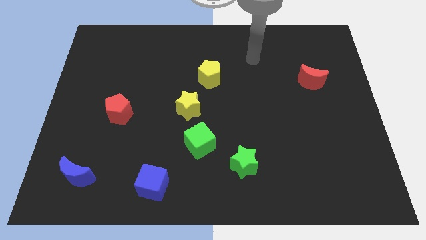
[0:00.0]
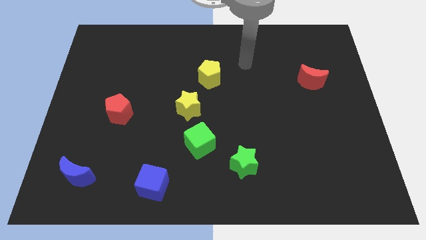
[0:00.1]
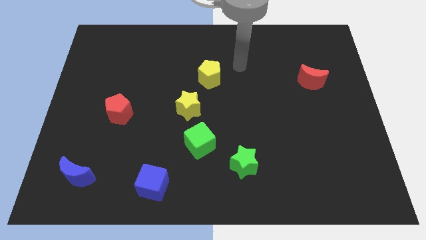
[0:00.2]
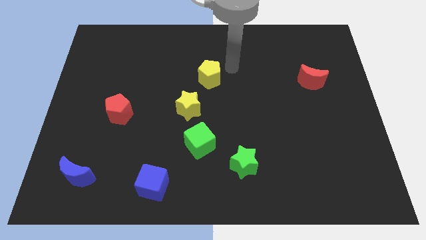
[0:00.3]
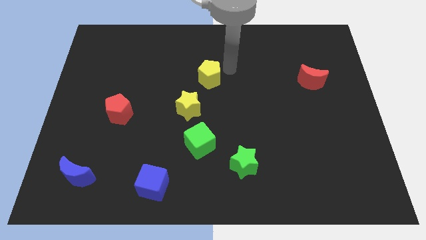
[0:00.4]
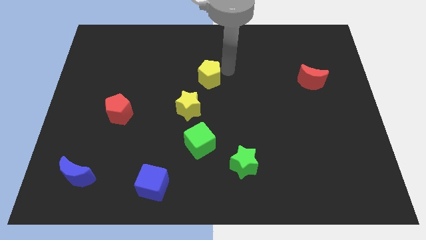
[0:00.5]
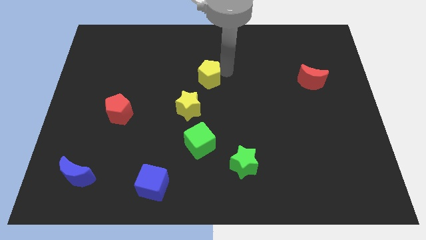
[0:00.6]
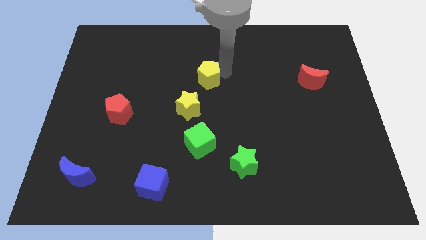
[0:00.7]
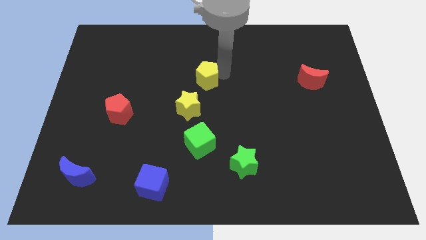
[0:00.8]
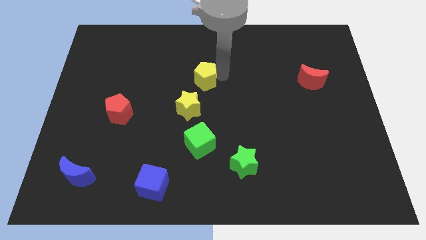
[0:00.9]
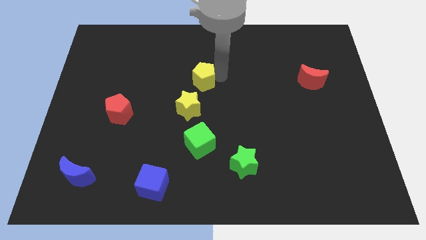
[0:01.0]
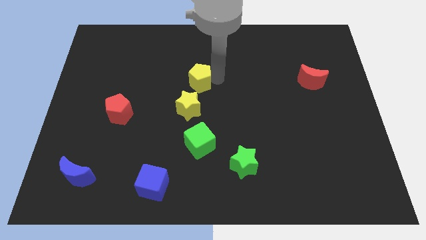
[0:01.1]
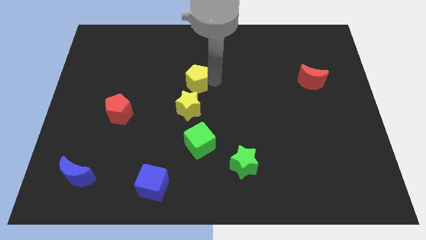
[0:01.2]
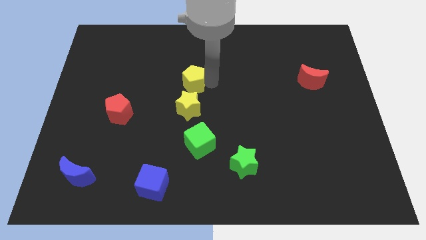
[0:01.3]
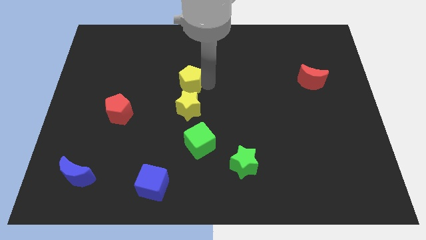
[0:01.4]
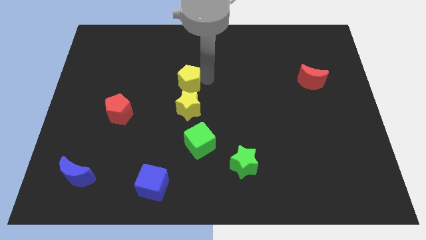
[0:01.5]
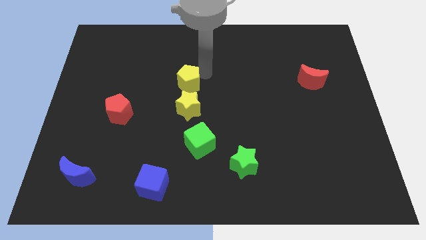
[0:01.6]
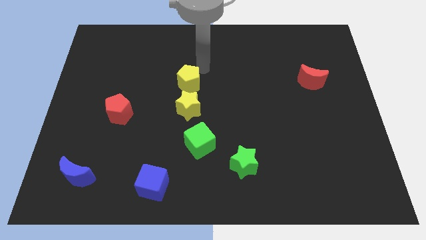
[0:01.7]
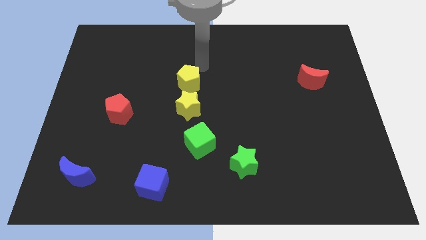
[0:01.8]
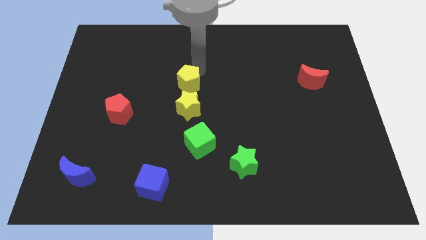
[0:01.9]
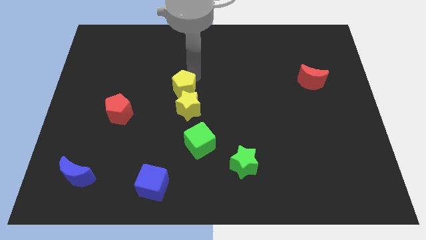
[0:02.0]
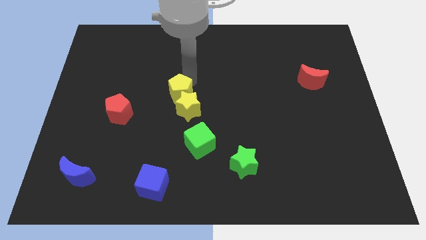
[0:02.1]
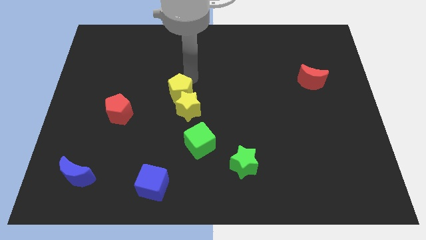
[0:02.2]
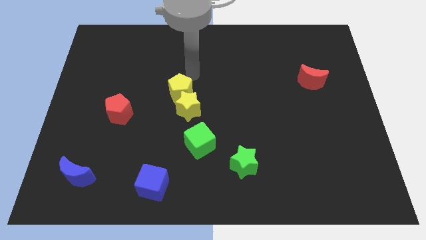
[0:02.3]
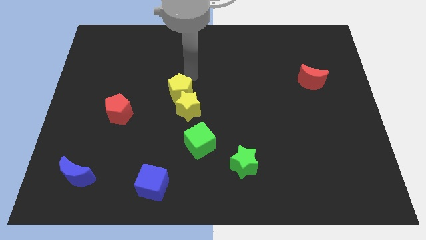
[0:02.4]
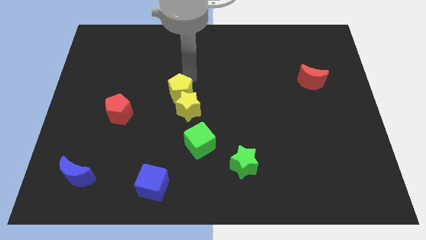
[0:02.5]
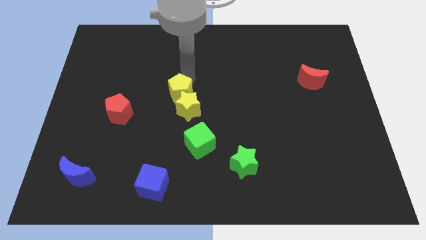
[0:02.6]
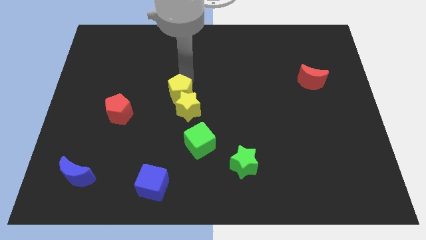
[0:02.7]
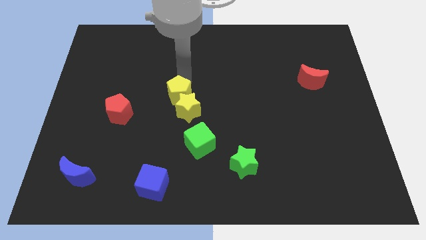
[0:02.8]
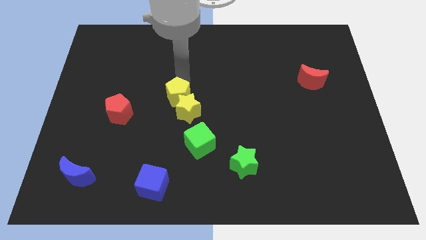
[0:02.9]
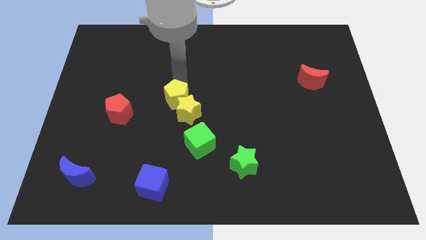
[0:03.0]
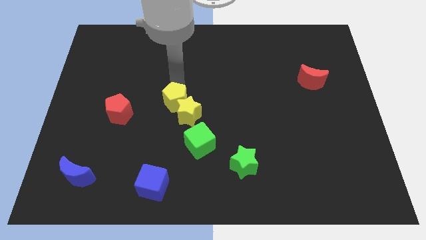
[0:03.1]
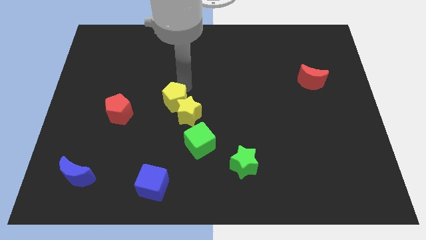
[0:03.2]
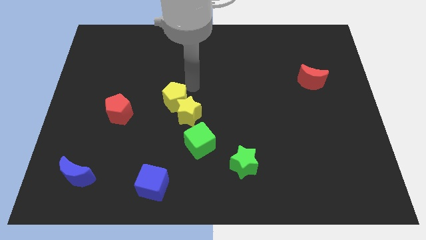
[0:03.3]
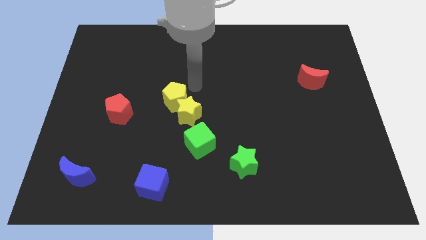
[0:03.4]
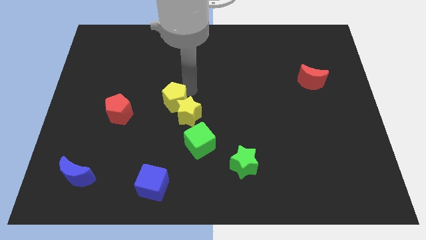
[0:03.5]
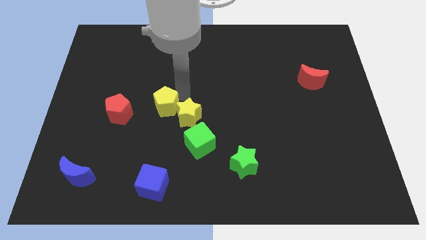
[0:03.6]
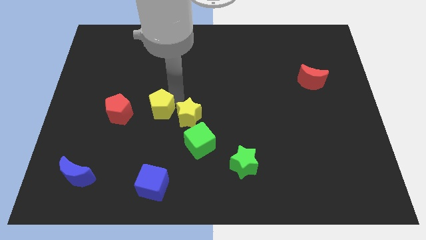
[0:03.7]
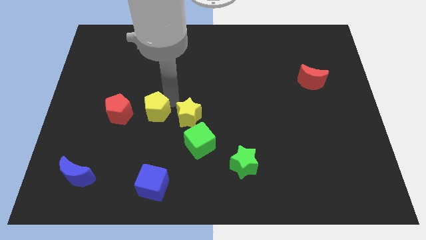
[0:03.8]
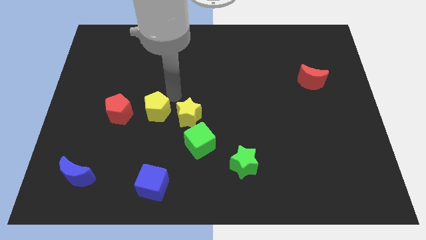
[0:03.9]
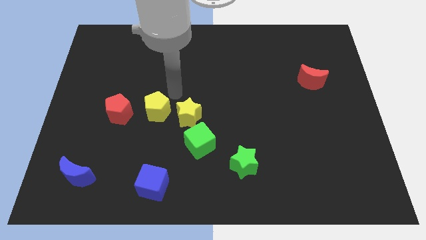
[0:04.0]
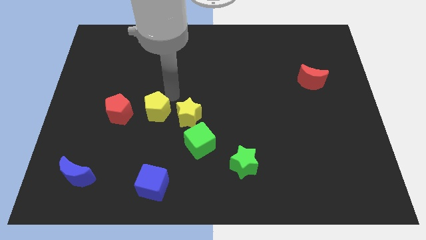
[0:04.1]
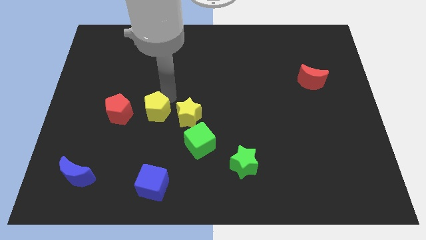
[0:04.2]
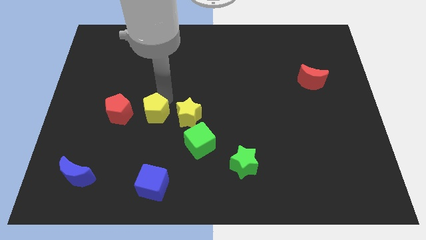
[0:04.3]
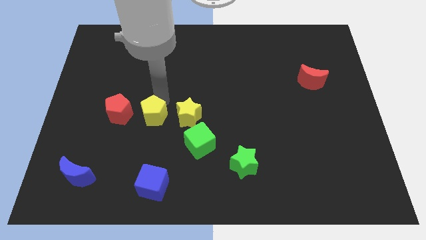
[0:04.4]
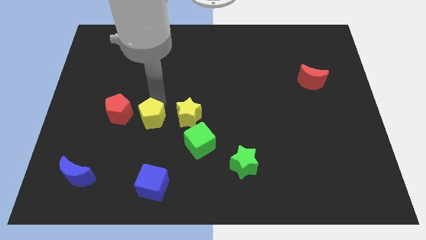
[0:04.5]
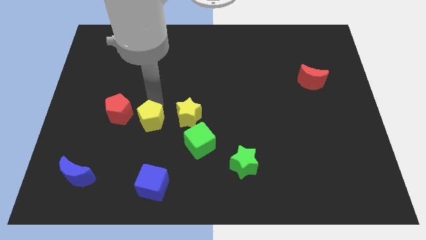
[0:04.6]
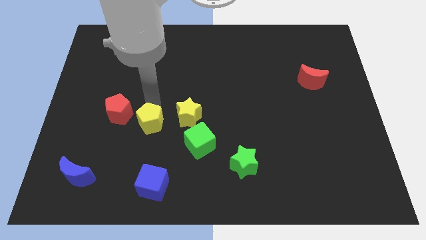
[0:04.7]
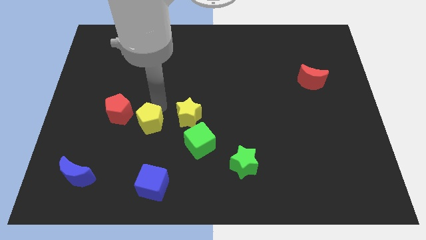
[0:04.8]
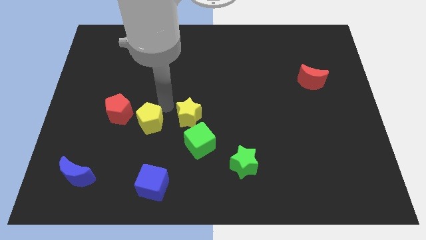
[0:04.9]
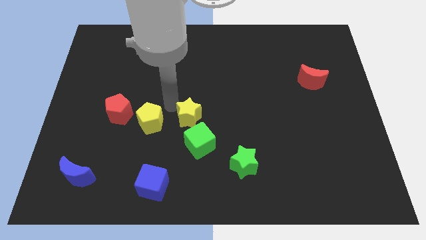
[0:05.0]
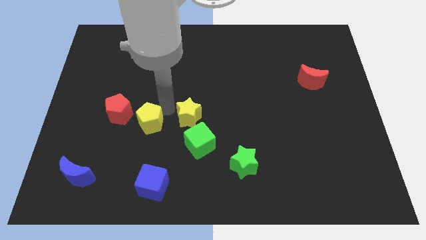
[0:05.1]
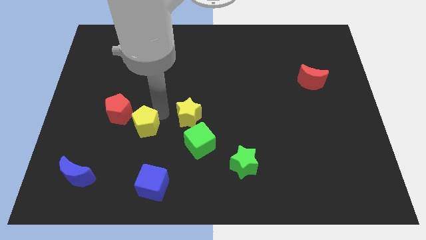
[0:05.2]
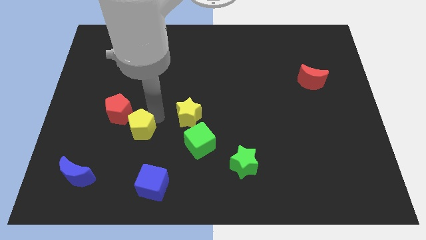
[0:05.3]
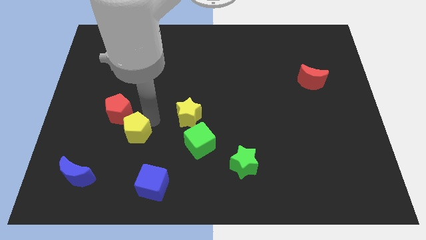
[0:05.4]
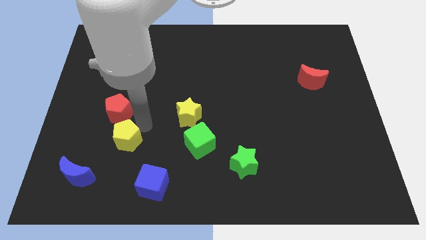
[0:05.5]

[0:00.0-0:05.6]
move the yellow pentagon diagonally up and to the right of the blue moon
